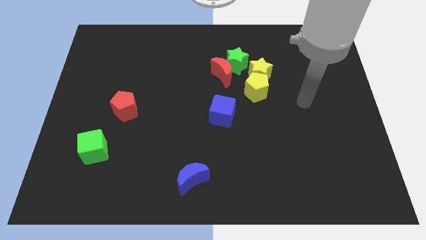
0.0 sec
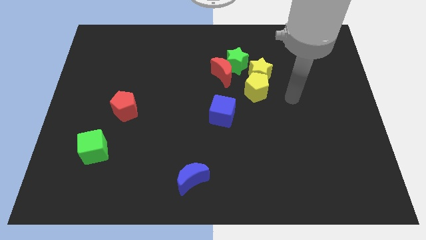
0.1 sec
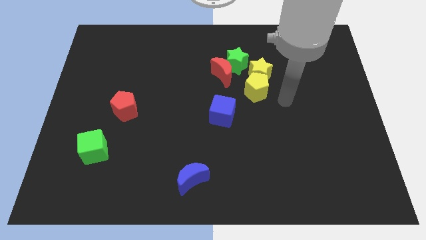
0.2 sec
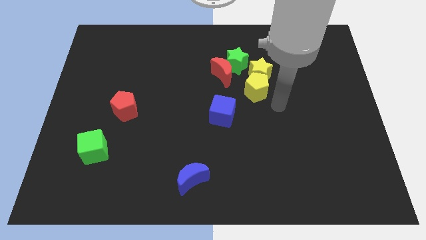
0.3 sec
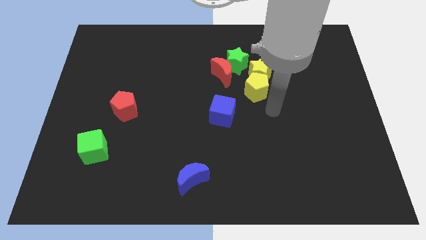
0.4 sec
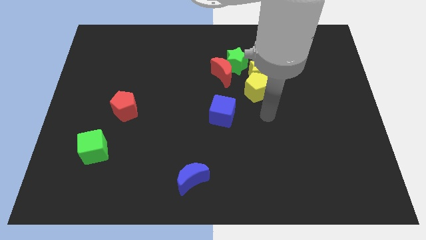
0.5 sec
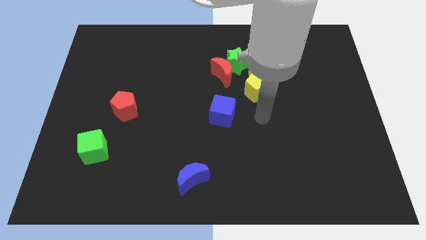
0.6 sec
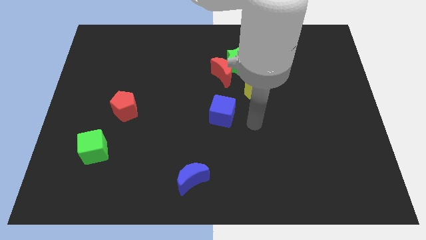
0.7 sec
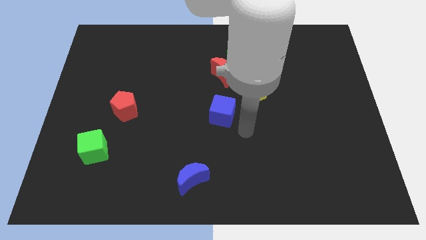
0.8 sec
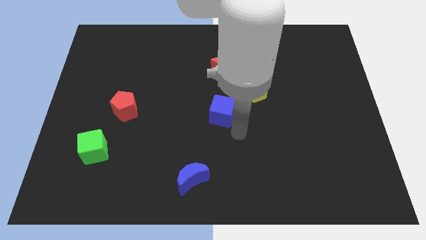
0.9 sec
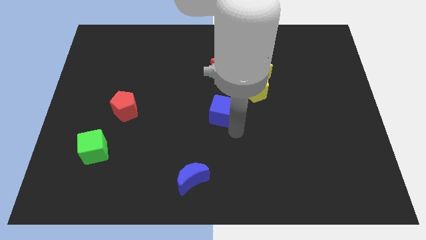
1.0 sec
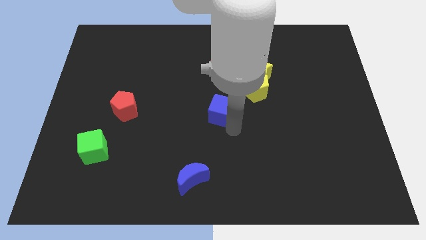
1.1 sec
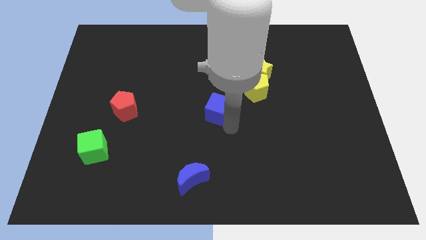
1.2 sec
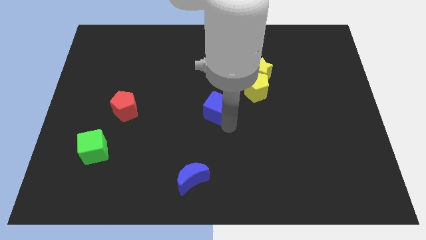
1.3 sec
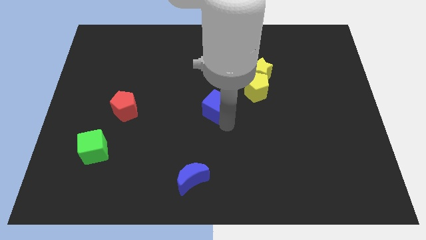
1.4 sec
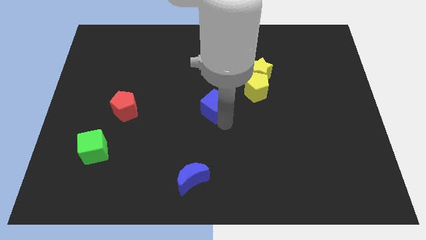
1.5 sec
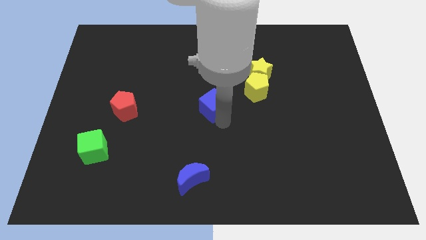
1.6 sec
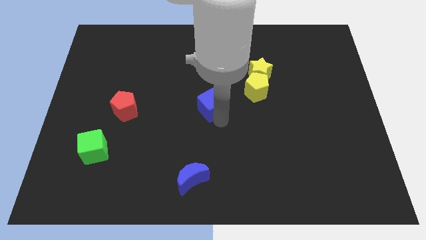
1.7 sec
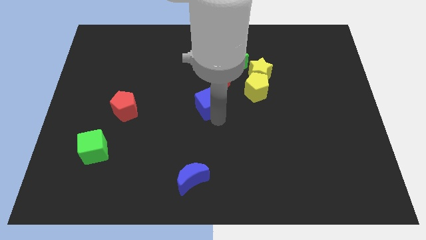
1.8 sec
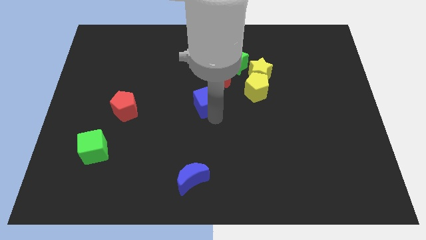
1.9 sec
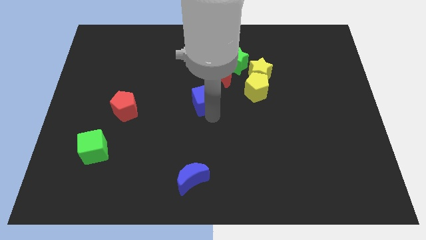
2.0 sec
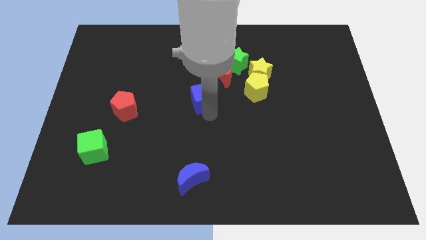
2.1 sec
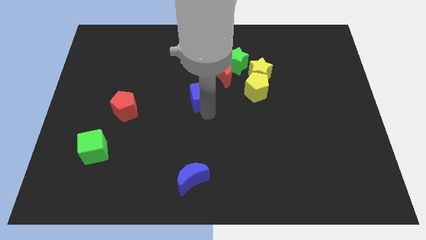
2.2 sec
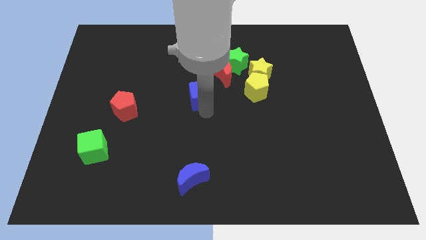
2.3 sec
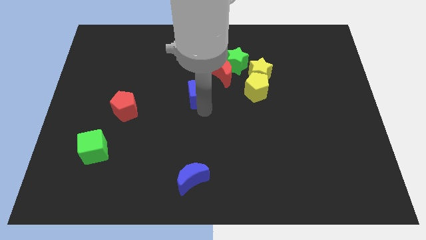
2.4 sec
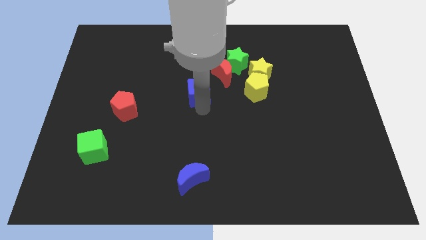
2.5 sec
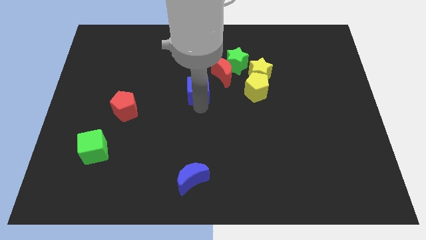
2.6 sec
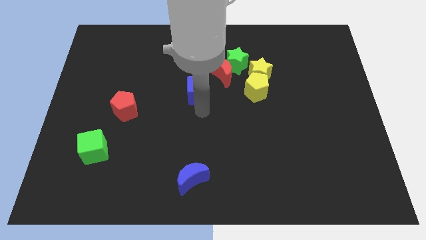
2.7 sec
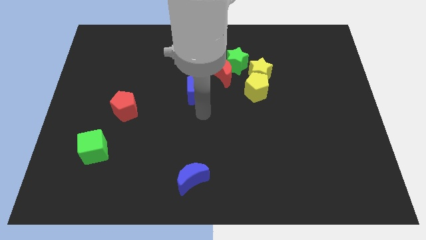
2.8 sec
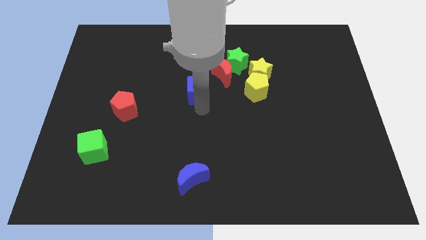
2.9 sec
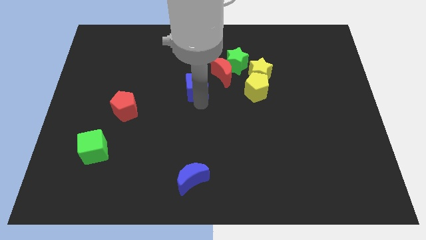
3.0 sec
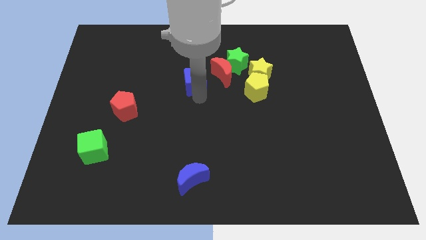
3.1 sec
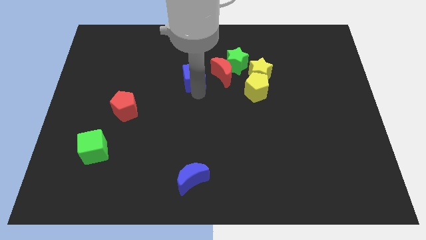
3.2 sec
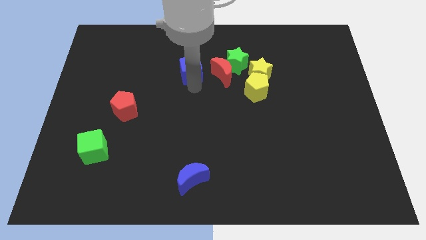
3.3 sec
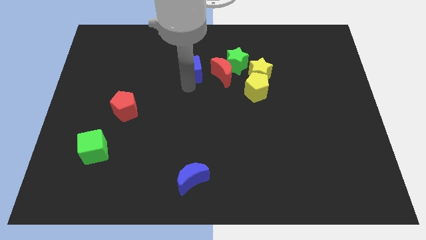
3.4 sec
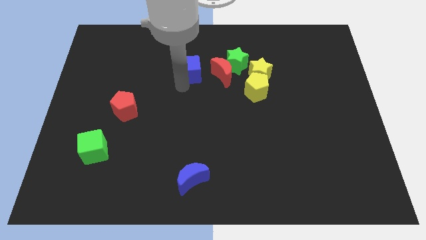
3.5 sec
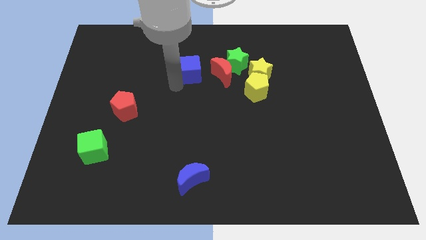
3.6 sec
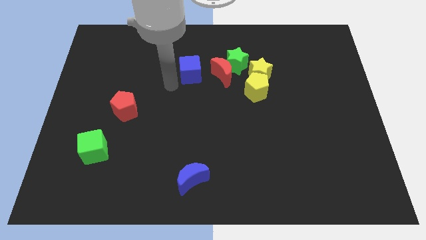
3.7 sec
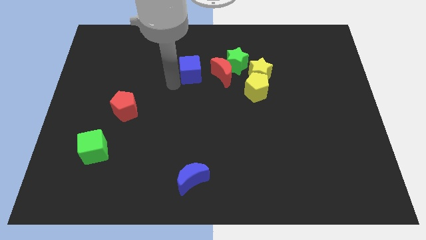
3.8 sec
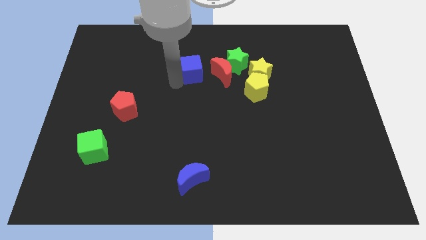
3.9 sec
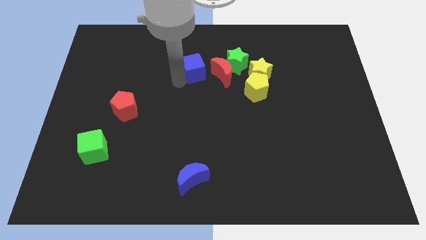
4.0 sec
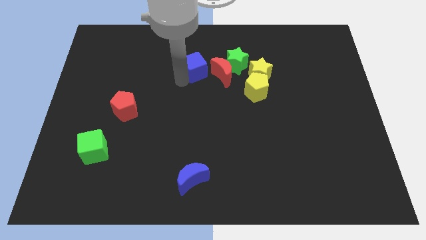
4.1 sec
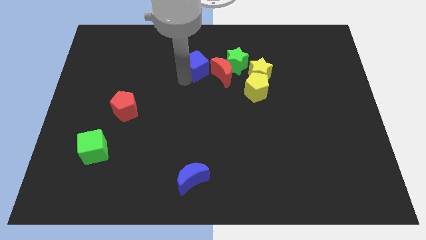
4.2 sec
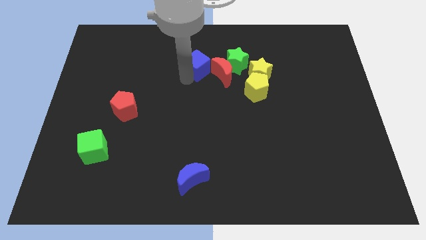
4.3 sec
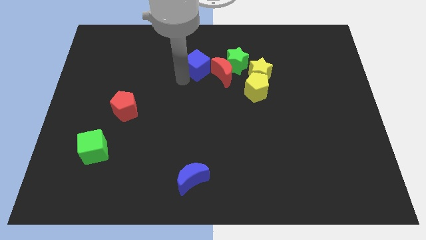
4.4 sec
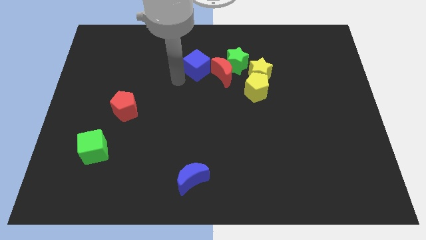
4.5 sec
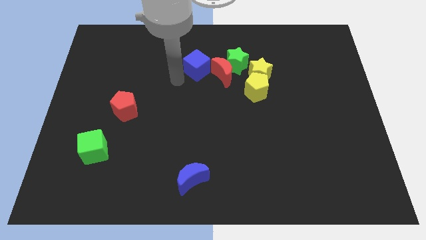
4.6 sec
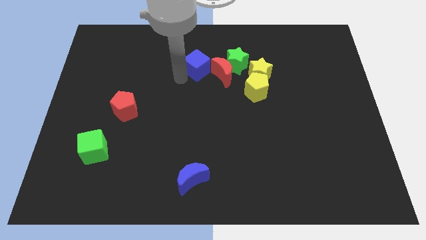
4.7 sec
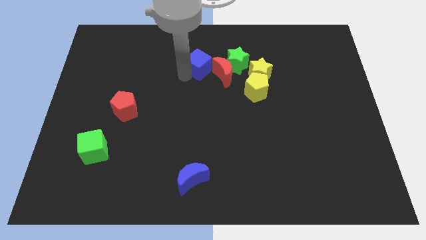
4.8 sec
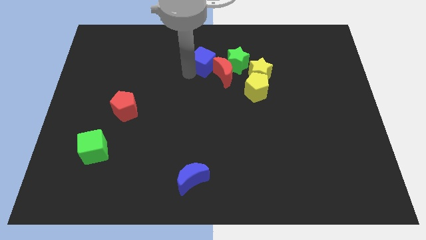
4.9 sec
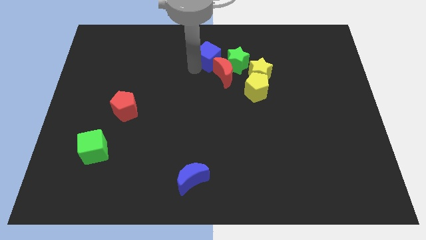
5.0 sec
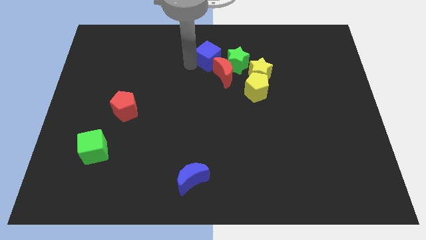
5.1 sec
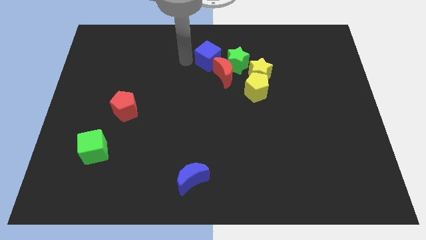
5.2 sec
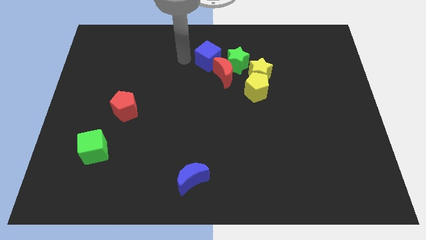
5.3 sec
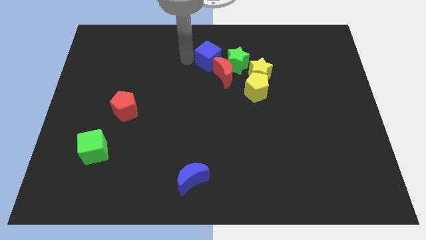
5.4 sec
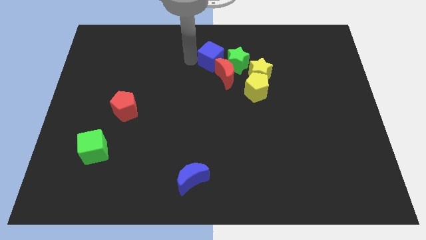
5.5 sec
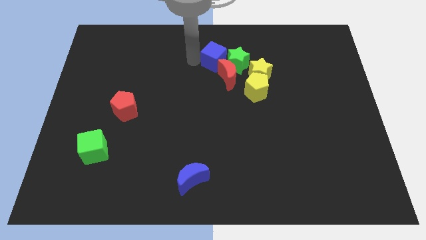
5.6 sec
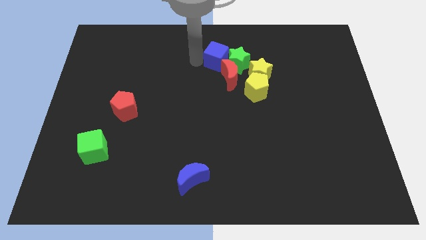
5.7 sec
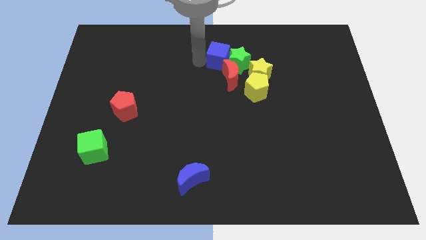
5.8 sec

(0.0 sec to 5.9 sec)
slide the blue cube to the top left side of the yellow star

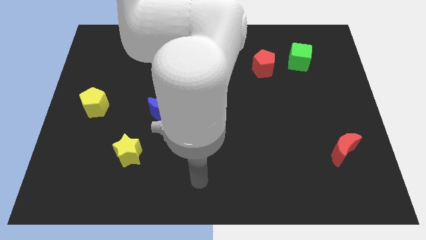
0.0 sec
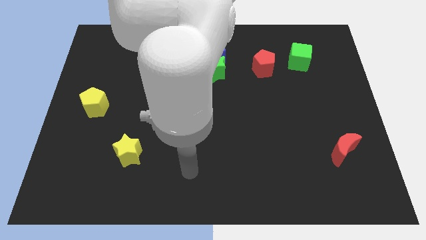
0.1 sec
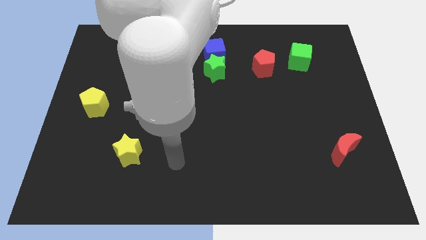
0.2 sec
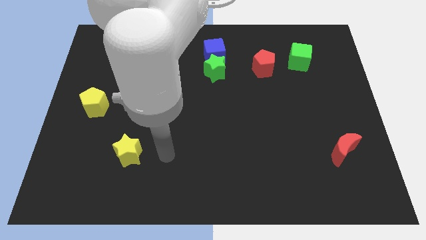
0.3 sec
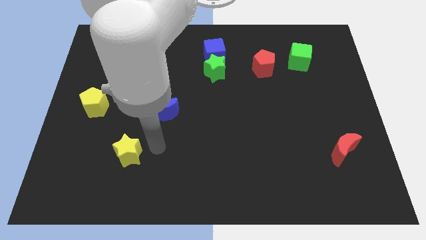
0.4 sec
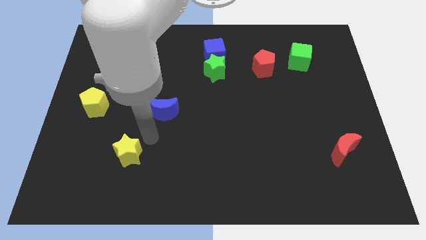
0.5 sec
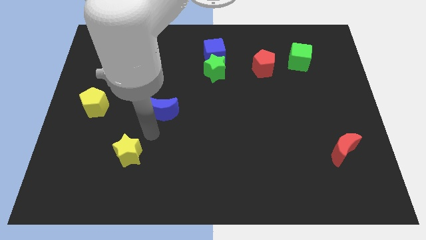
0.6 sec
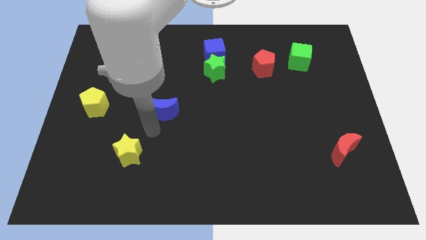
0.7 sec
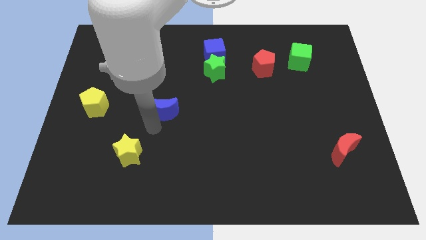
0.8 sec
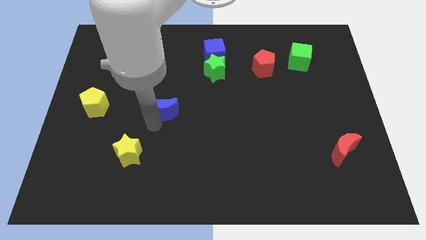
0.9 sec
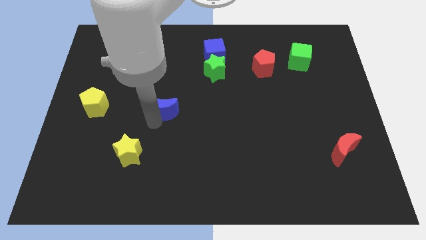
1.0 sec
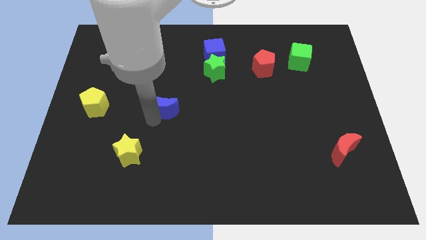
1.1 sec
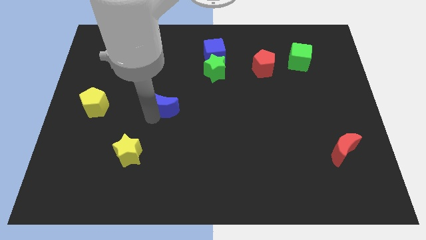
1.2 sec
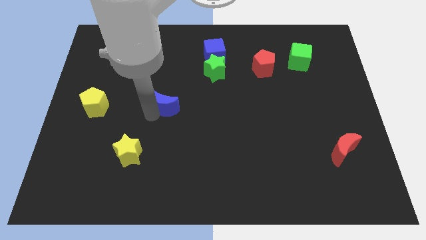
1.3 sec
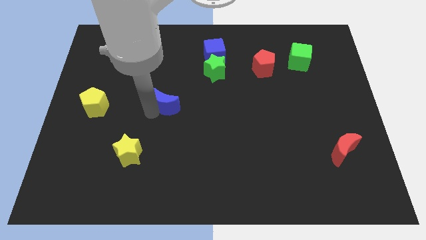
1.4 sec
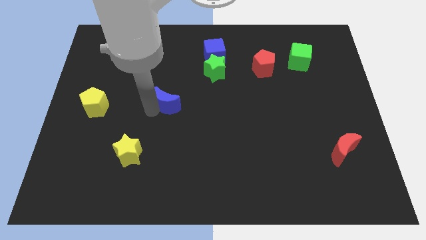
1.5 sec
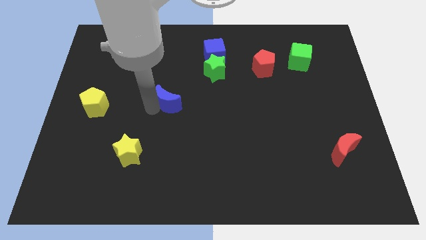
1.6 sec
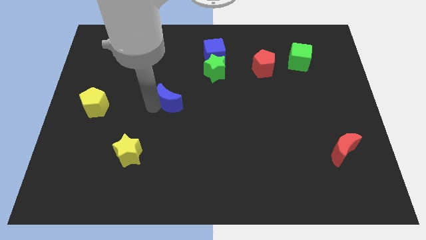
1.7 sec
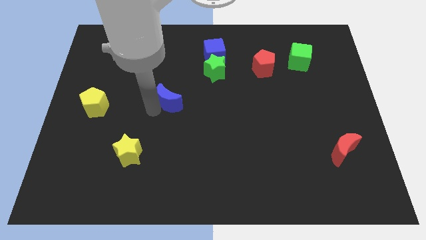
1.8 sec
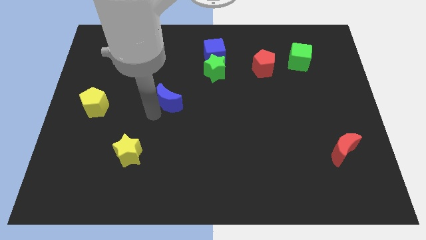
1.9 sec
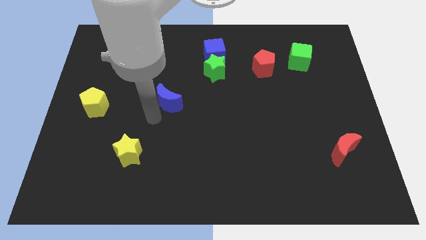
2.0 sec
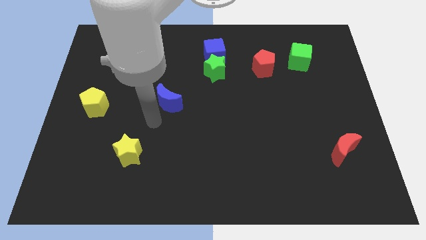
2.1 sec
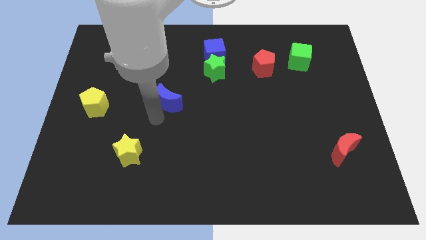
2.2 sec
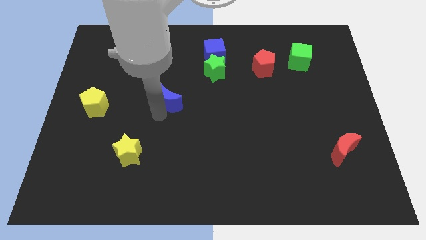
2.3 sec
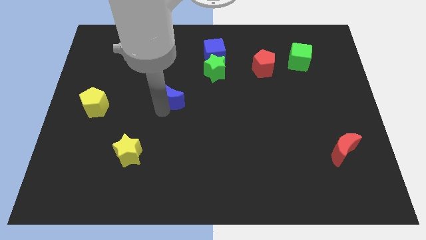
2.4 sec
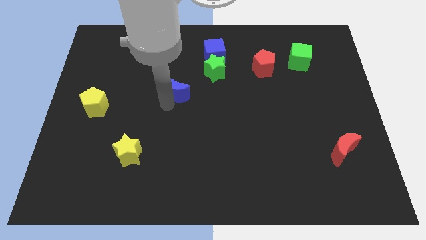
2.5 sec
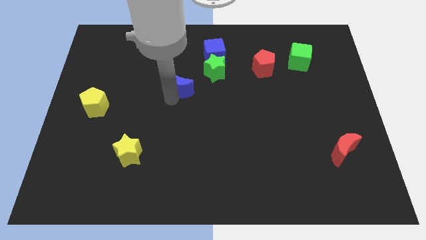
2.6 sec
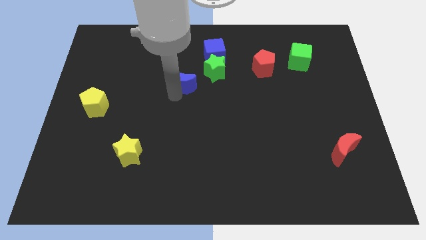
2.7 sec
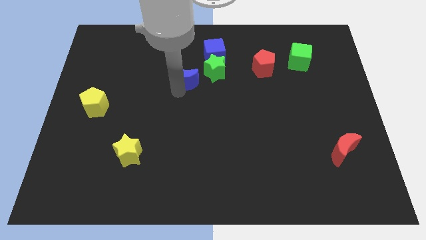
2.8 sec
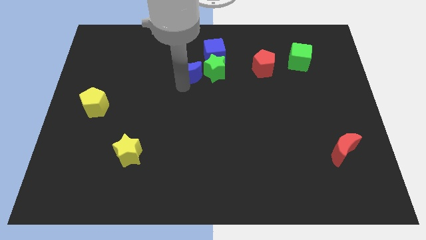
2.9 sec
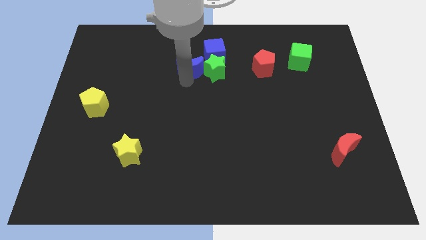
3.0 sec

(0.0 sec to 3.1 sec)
slide the blue moon to the top left of the green star
